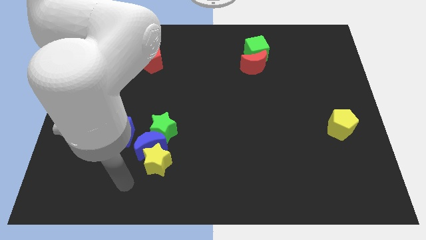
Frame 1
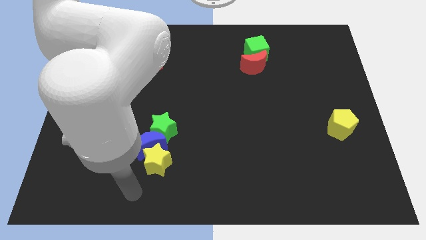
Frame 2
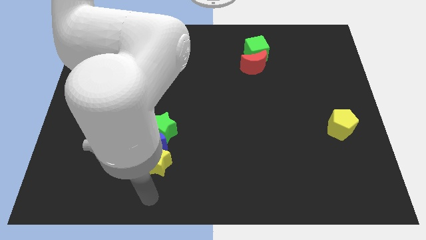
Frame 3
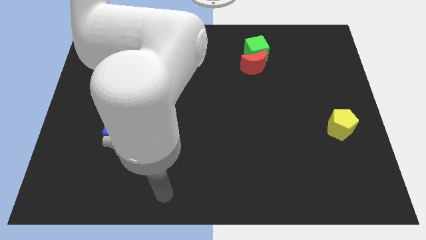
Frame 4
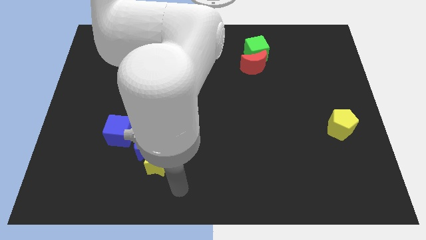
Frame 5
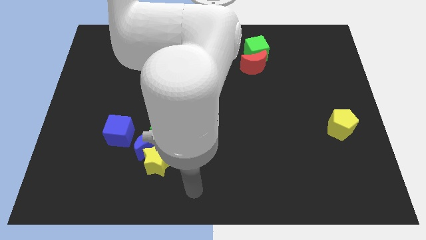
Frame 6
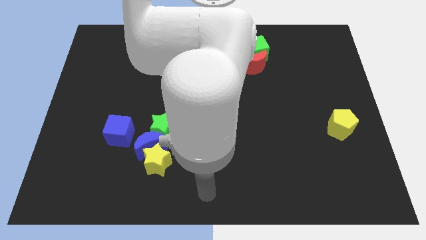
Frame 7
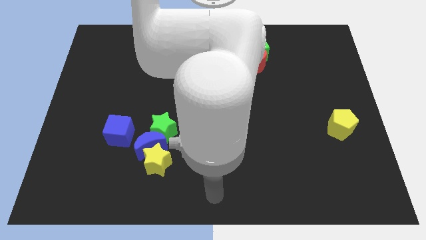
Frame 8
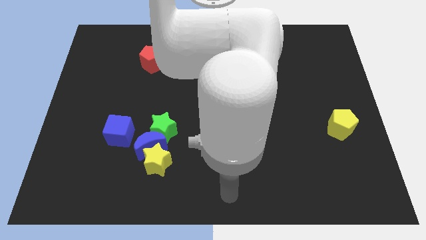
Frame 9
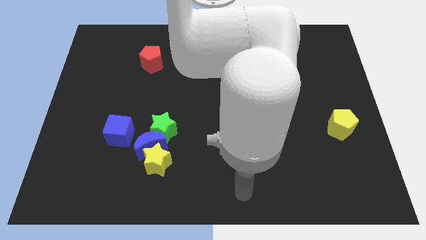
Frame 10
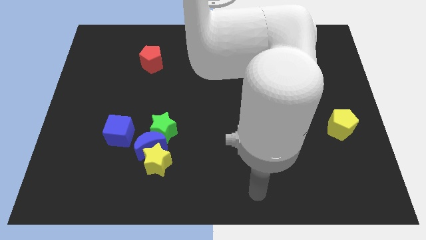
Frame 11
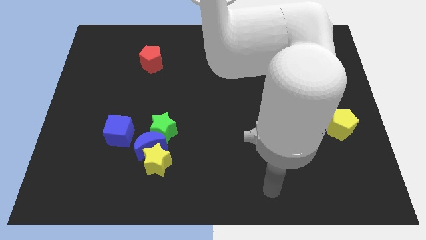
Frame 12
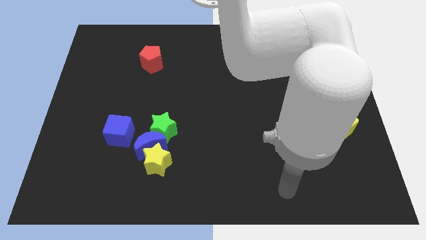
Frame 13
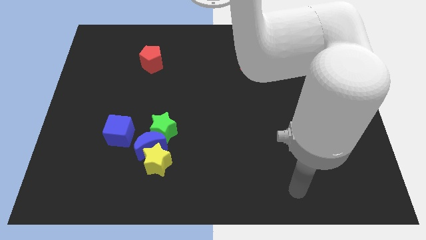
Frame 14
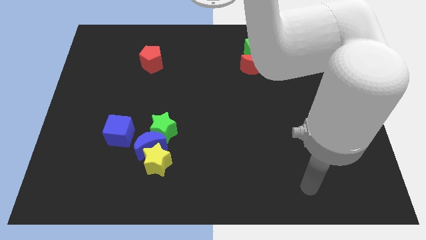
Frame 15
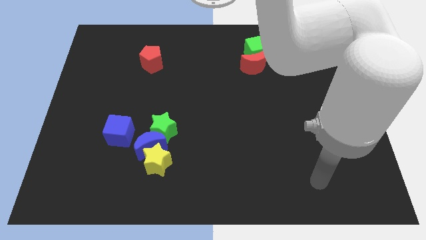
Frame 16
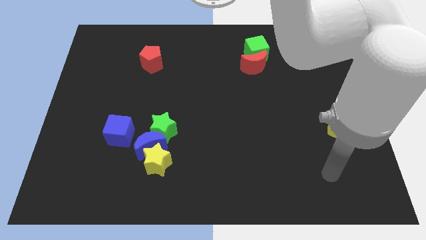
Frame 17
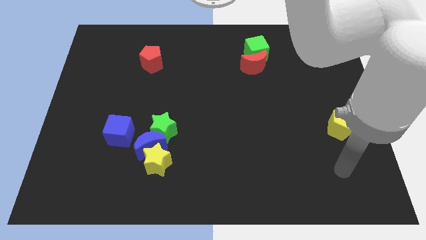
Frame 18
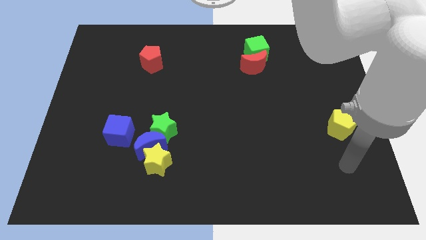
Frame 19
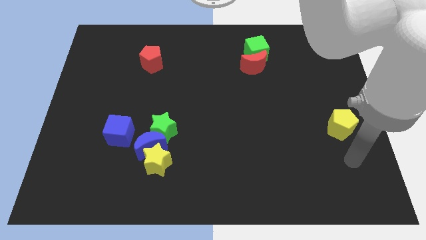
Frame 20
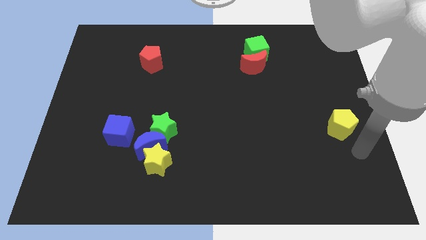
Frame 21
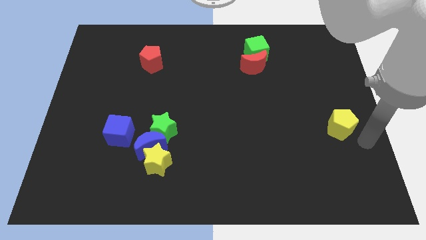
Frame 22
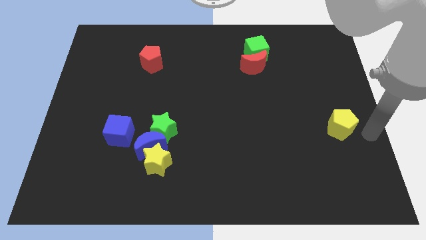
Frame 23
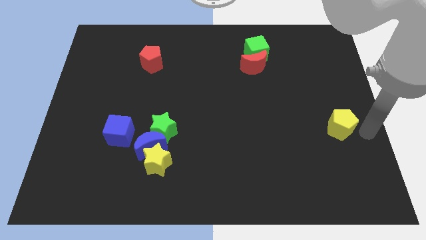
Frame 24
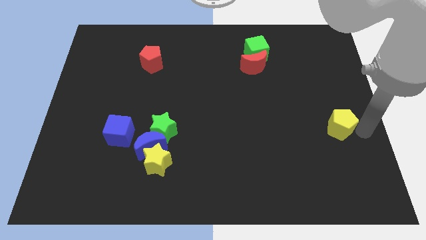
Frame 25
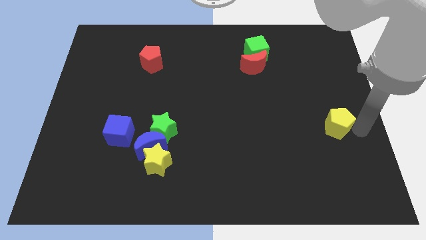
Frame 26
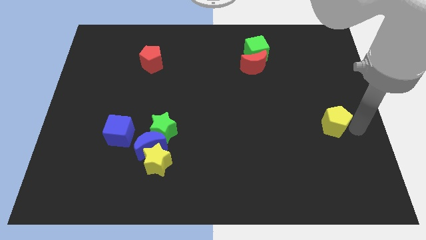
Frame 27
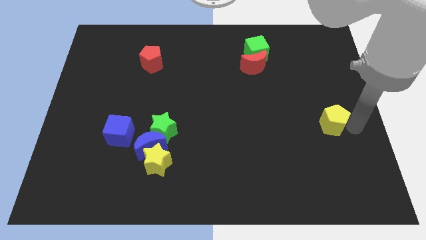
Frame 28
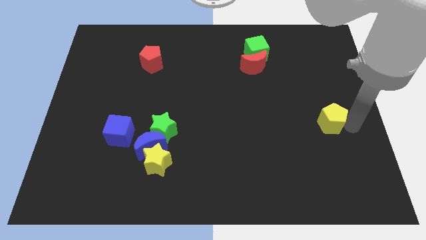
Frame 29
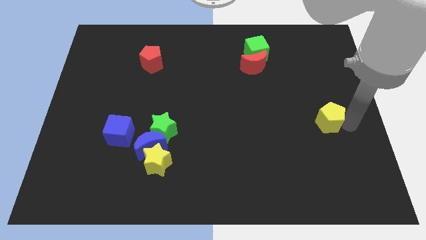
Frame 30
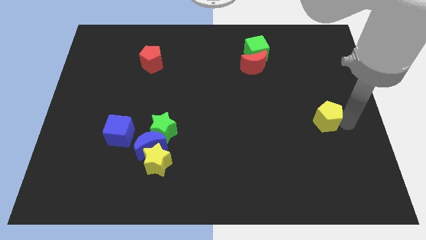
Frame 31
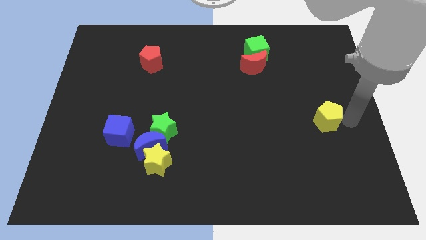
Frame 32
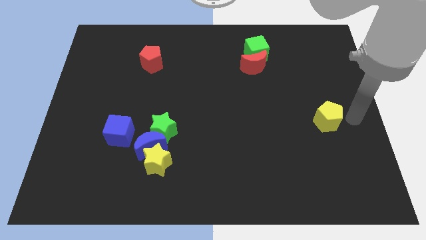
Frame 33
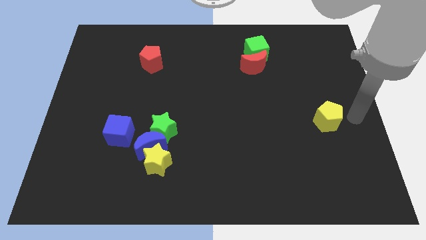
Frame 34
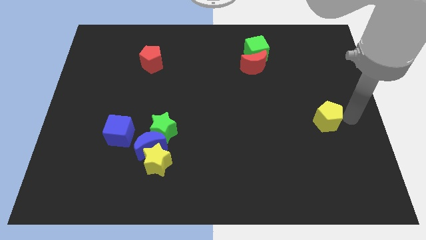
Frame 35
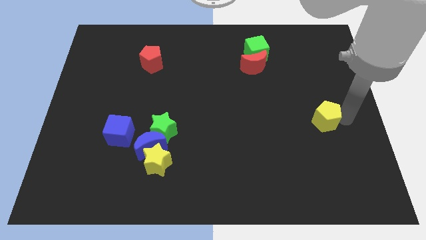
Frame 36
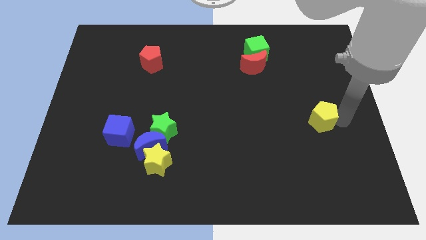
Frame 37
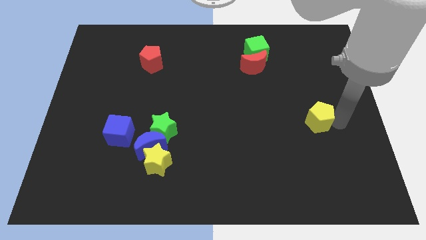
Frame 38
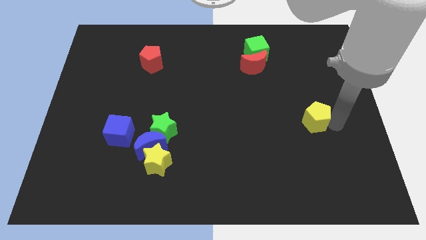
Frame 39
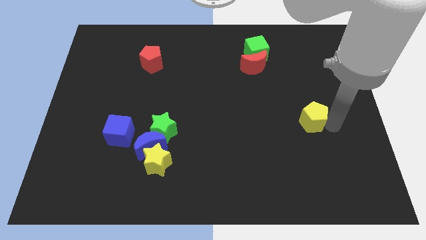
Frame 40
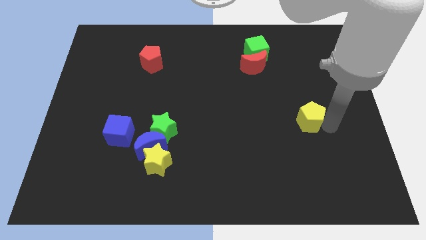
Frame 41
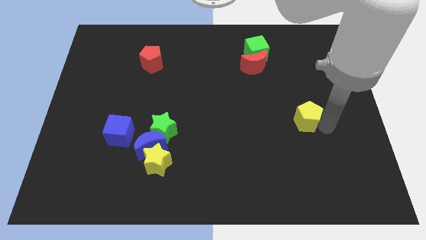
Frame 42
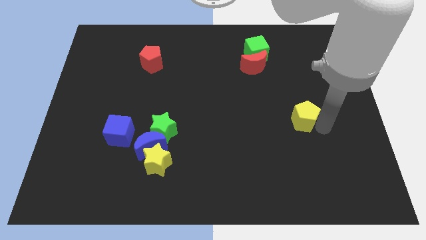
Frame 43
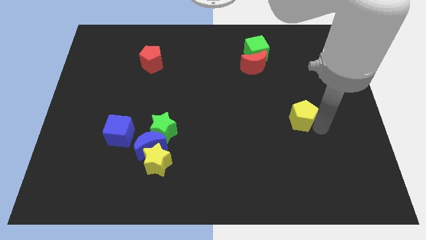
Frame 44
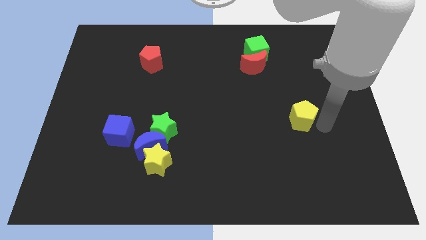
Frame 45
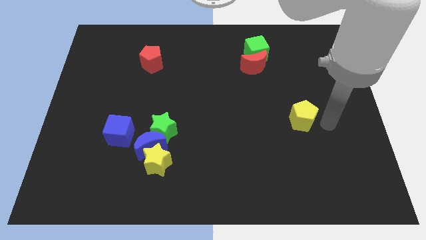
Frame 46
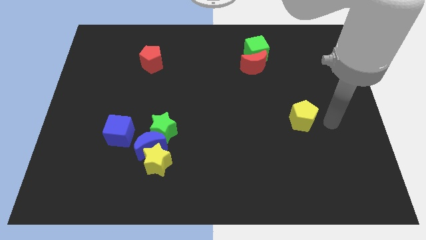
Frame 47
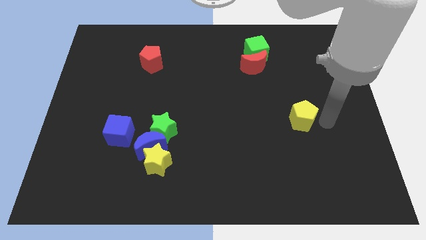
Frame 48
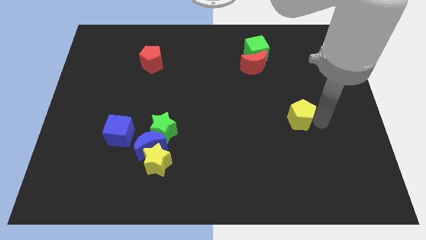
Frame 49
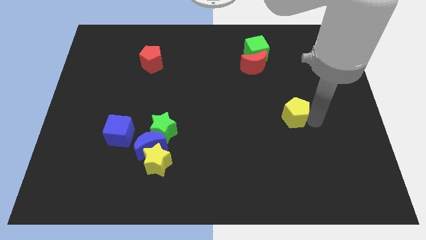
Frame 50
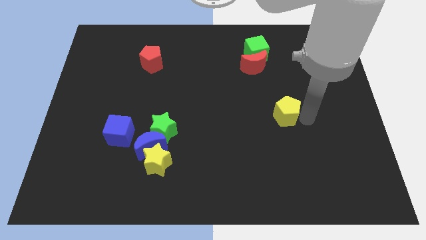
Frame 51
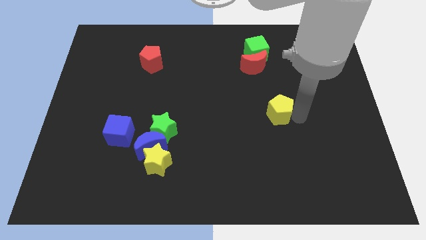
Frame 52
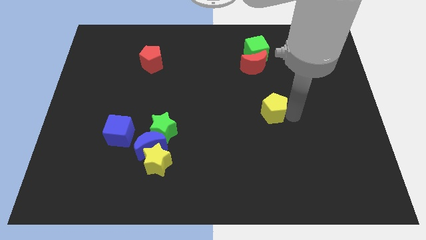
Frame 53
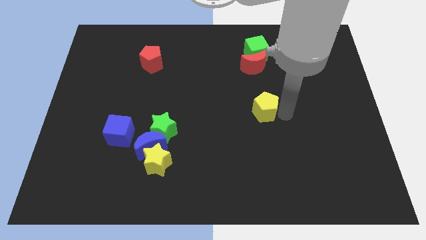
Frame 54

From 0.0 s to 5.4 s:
put the yellow pentagon to the center
